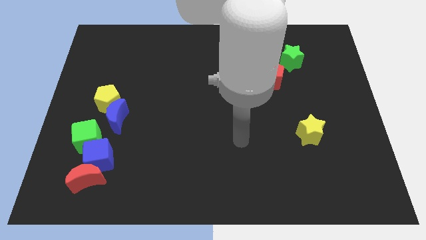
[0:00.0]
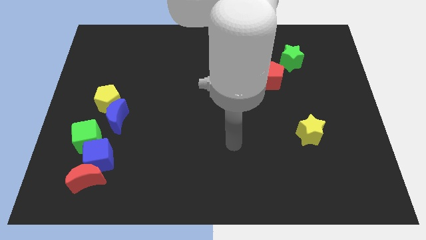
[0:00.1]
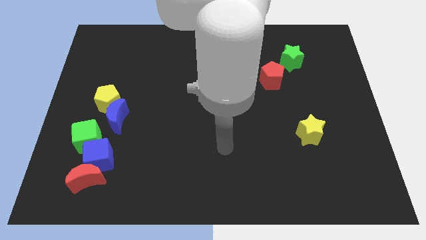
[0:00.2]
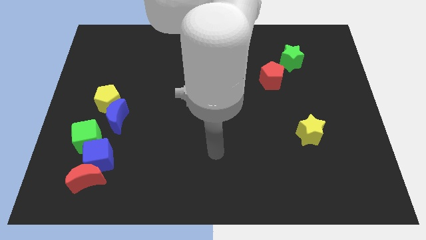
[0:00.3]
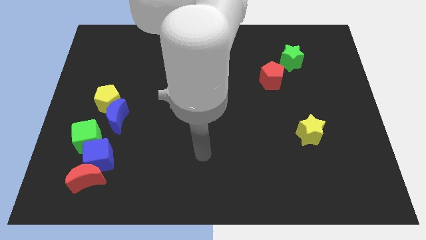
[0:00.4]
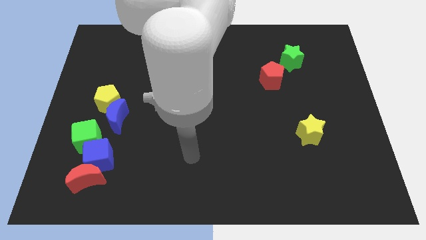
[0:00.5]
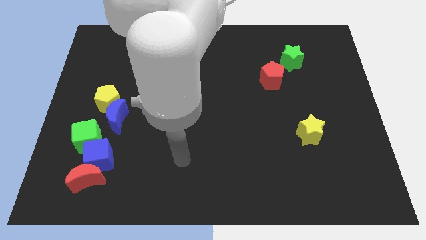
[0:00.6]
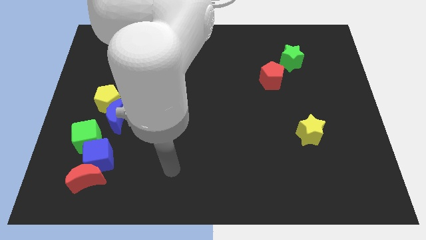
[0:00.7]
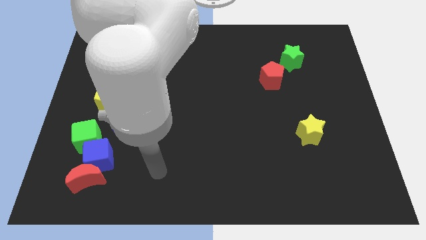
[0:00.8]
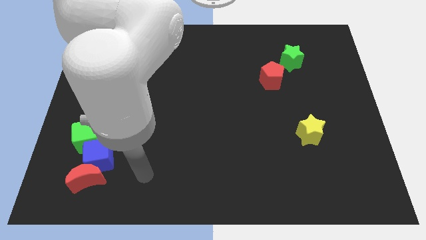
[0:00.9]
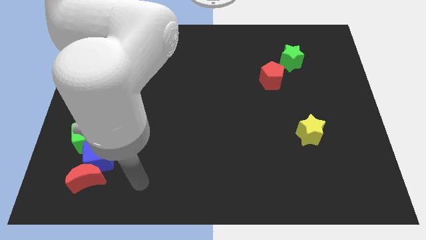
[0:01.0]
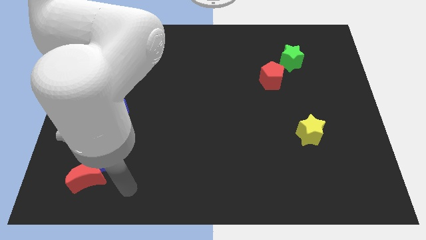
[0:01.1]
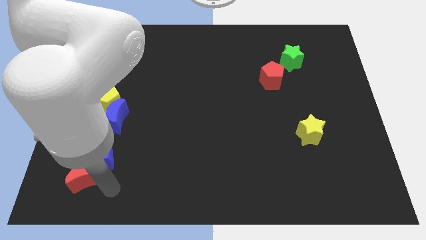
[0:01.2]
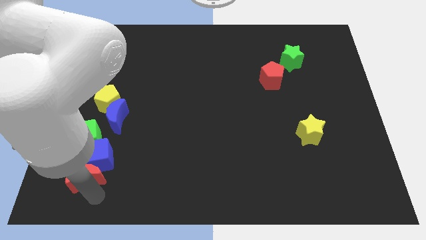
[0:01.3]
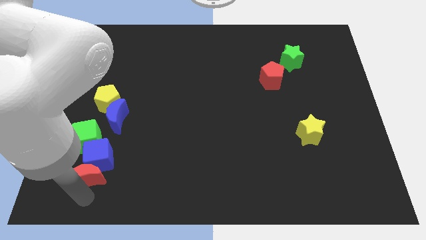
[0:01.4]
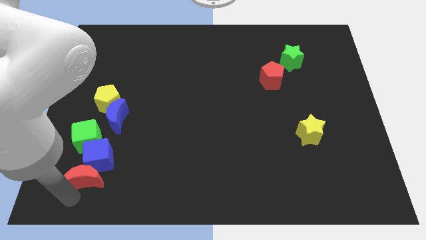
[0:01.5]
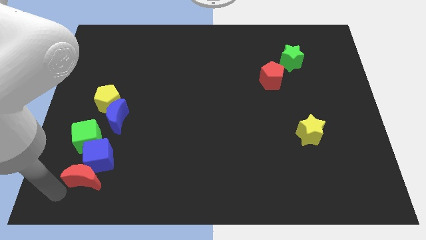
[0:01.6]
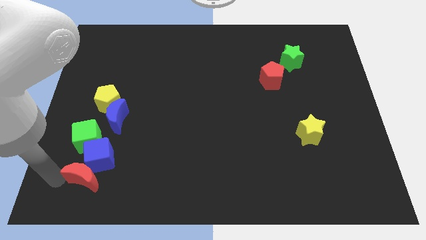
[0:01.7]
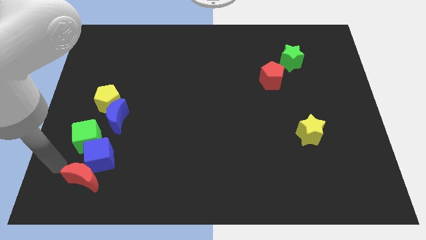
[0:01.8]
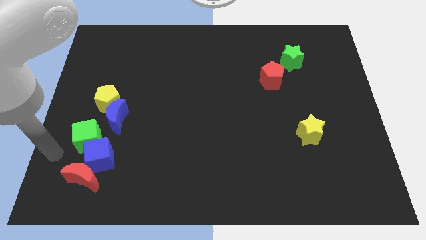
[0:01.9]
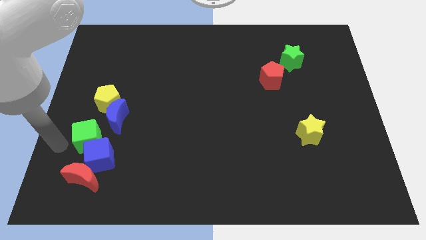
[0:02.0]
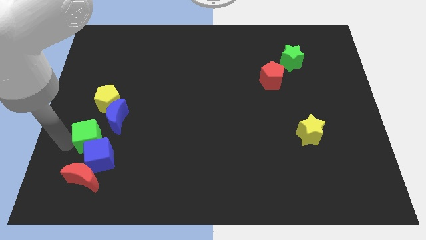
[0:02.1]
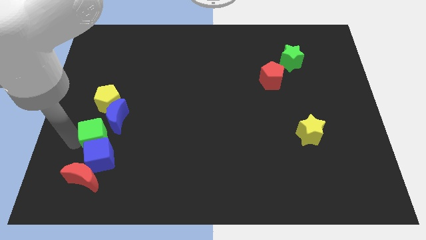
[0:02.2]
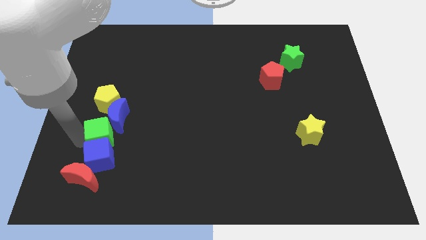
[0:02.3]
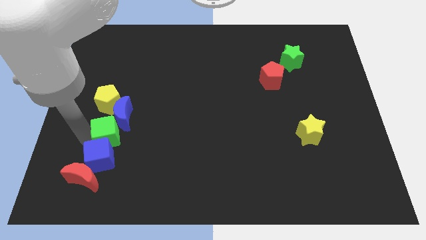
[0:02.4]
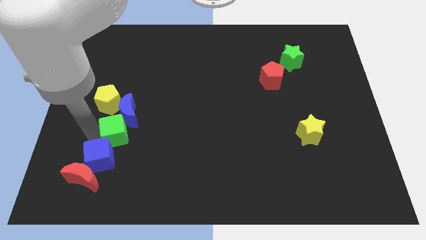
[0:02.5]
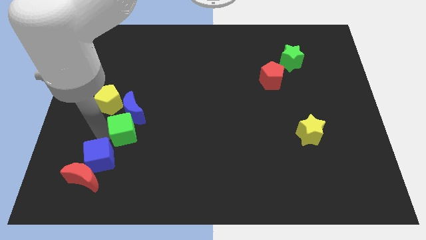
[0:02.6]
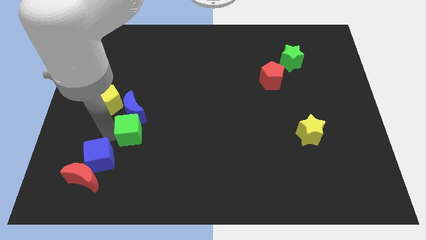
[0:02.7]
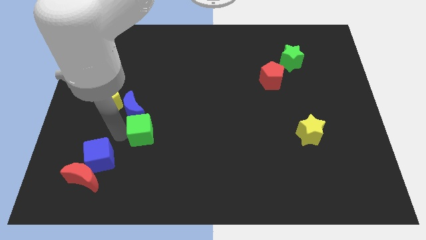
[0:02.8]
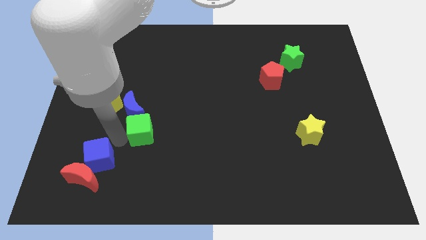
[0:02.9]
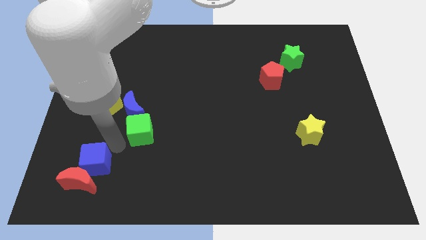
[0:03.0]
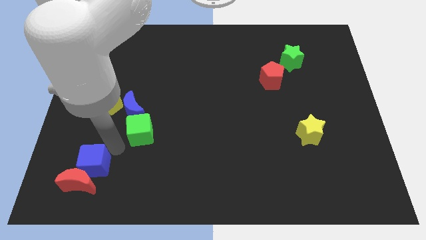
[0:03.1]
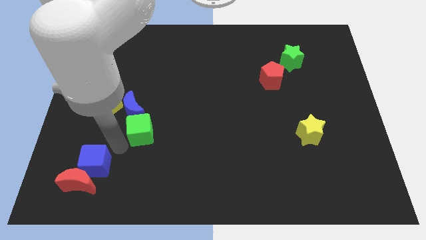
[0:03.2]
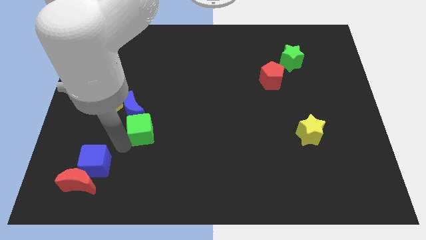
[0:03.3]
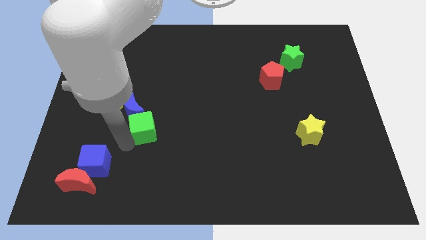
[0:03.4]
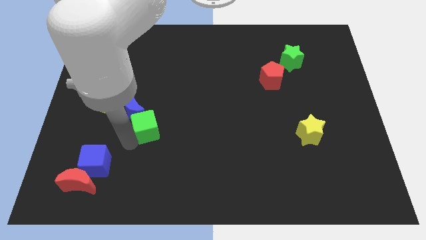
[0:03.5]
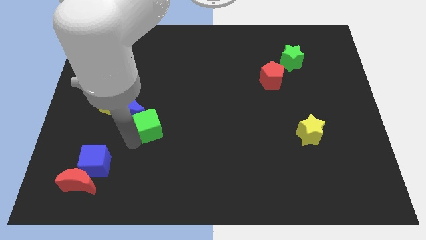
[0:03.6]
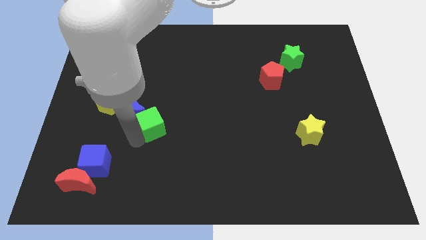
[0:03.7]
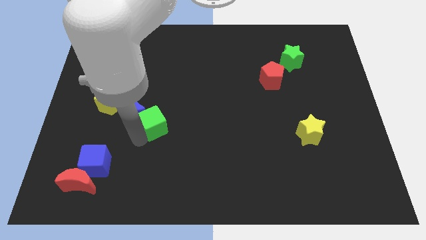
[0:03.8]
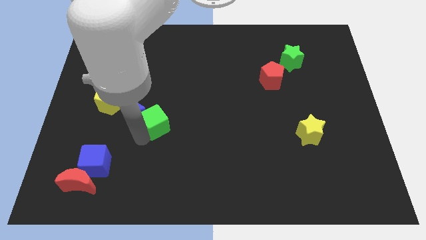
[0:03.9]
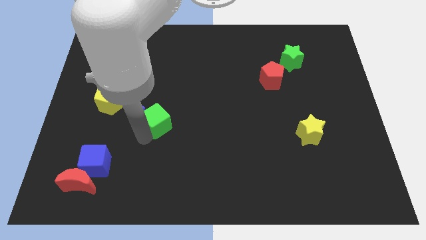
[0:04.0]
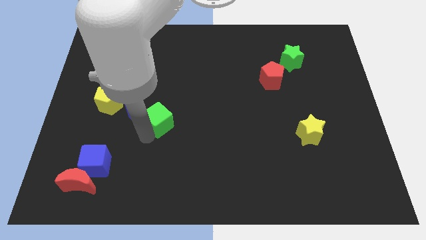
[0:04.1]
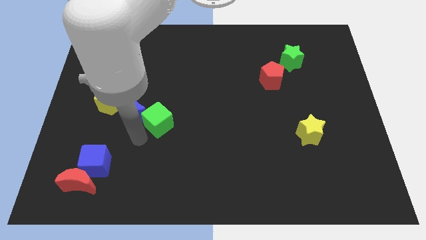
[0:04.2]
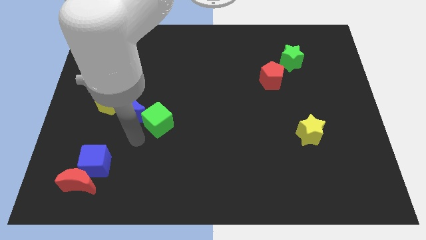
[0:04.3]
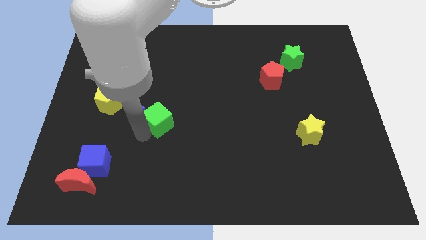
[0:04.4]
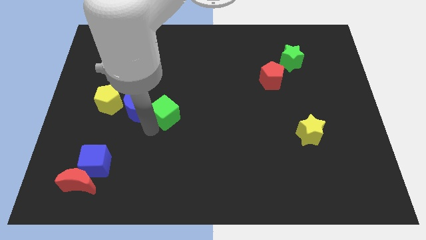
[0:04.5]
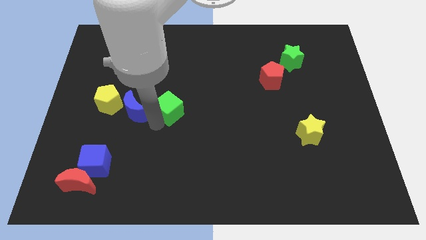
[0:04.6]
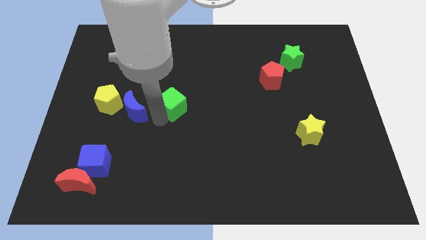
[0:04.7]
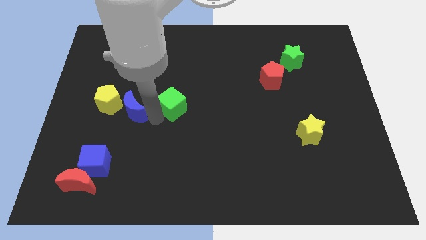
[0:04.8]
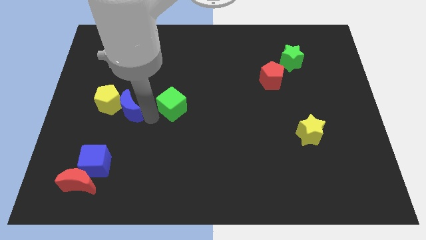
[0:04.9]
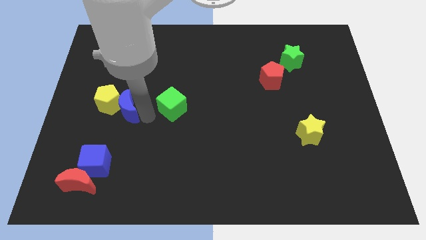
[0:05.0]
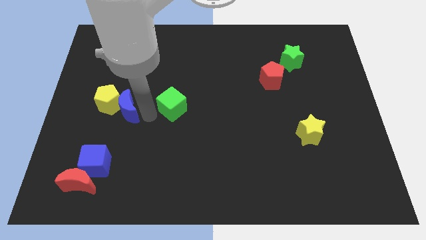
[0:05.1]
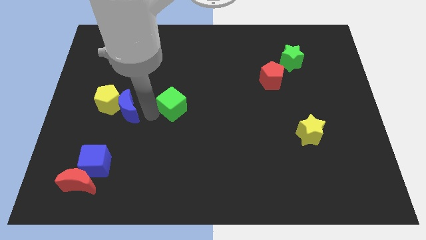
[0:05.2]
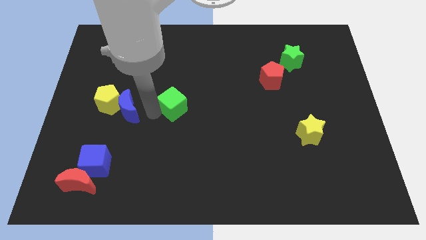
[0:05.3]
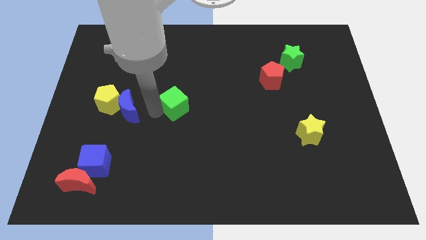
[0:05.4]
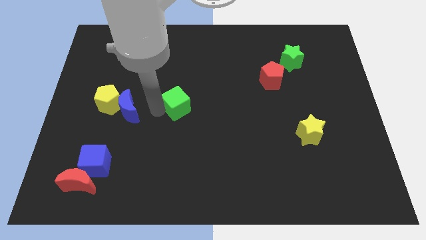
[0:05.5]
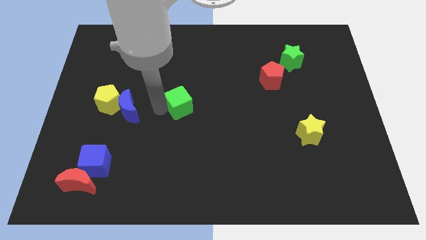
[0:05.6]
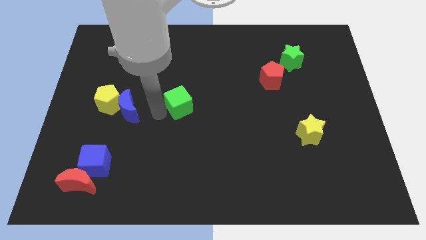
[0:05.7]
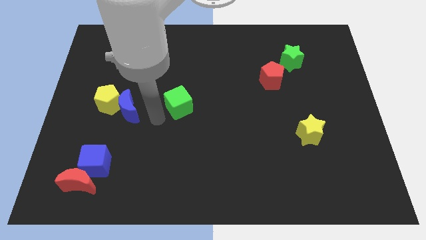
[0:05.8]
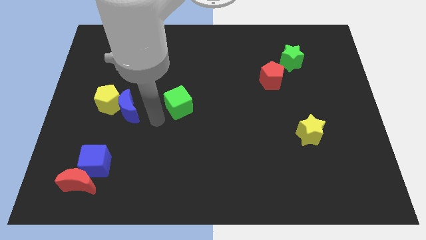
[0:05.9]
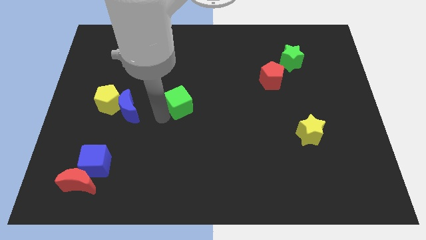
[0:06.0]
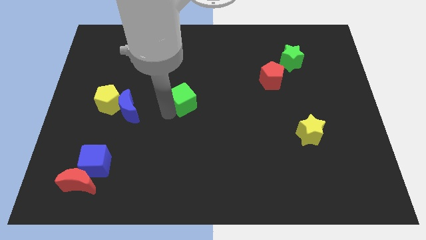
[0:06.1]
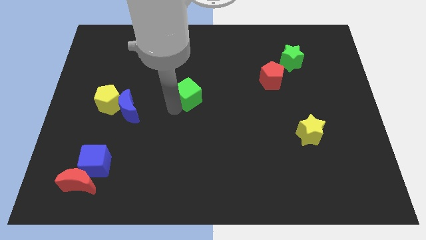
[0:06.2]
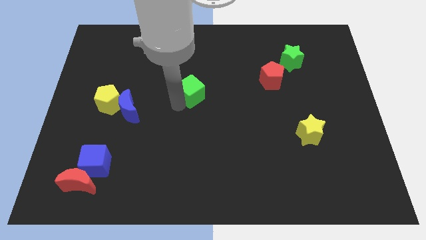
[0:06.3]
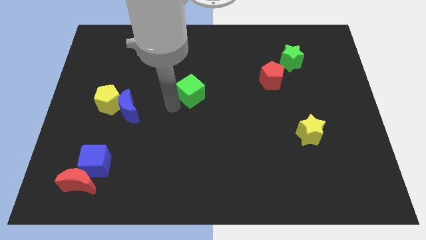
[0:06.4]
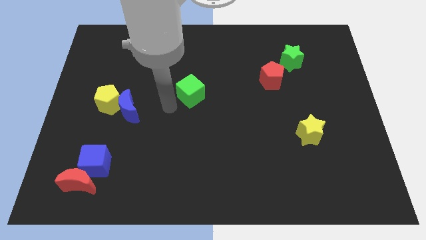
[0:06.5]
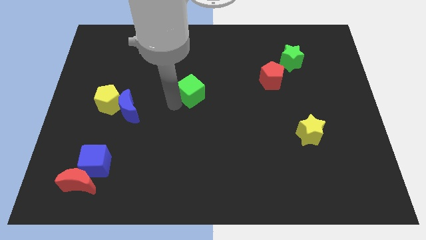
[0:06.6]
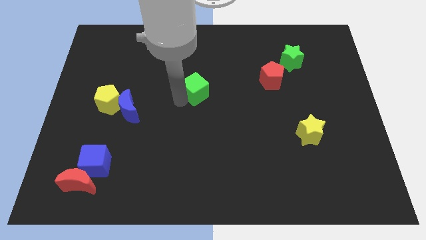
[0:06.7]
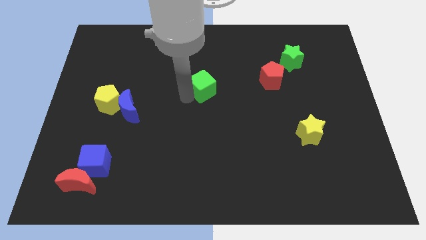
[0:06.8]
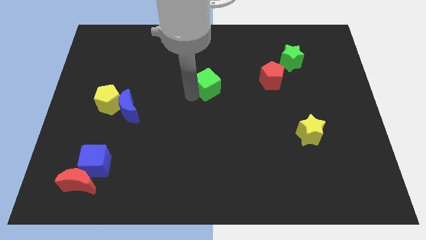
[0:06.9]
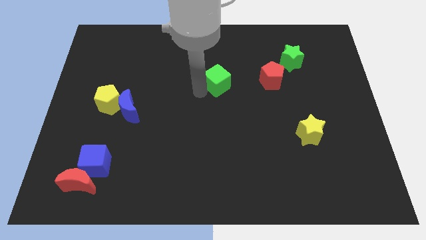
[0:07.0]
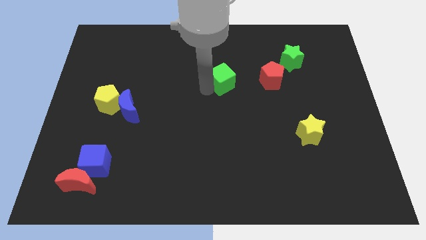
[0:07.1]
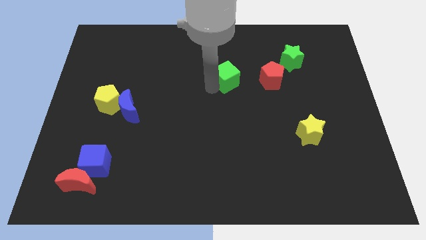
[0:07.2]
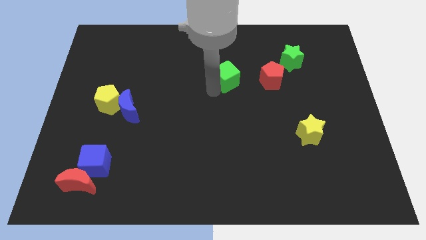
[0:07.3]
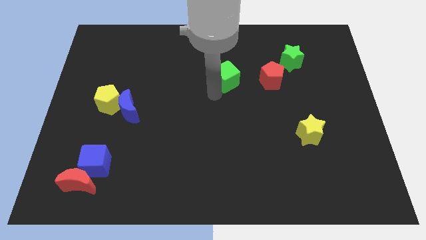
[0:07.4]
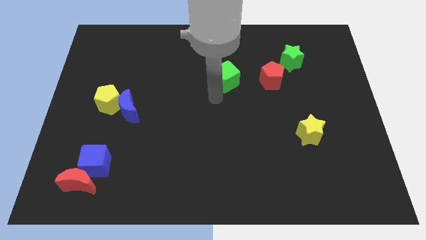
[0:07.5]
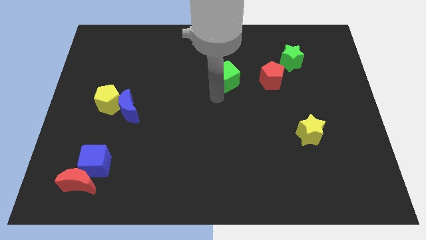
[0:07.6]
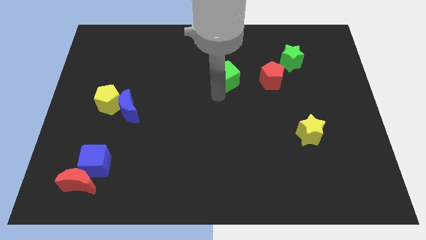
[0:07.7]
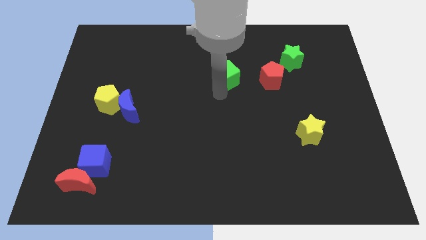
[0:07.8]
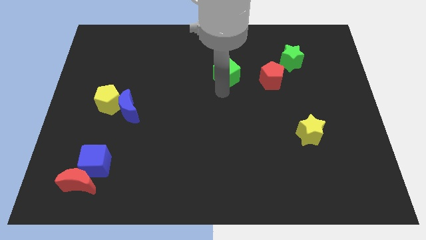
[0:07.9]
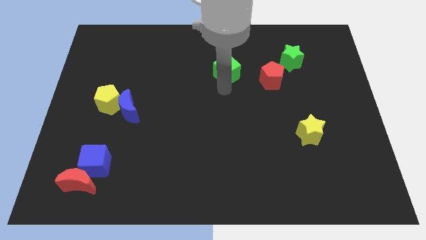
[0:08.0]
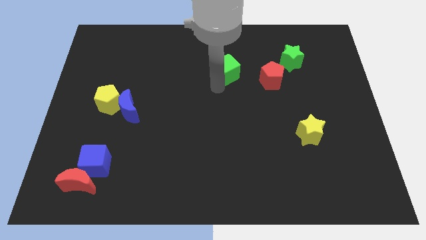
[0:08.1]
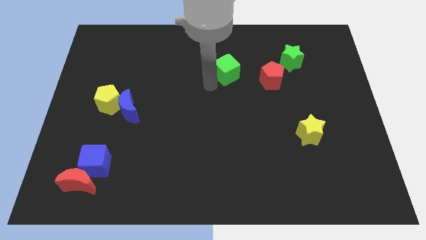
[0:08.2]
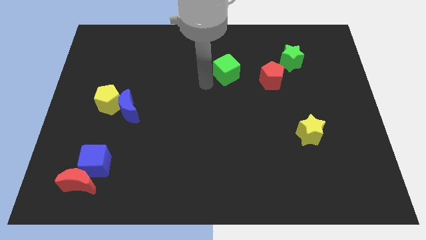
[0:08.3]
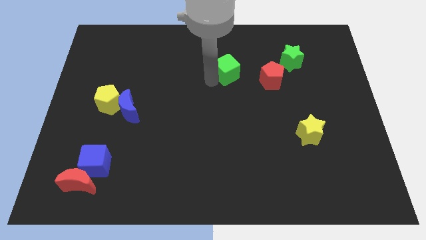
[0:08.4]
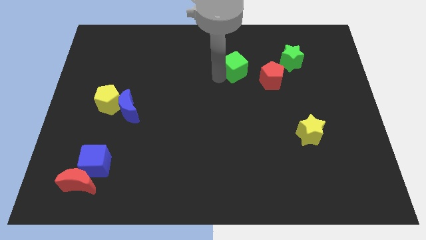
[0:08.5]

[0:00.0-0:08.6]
move the green cube just left of the green star
